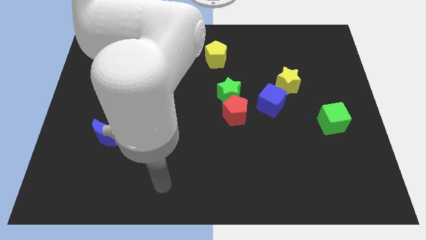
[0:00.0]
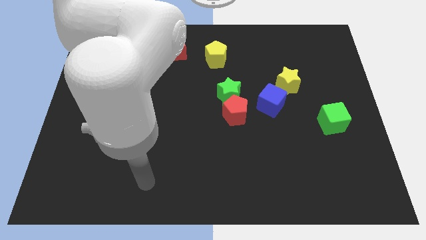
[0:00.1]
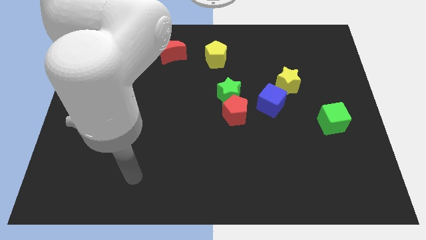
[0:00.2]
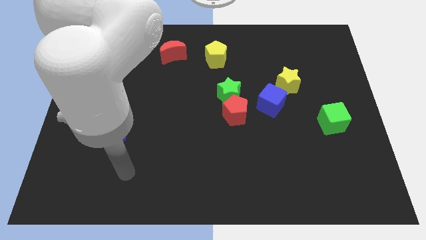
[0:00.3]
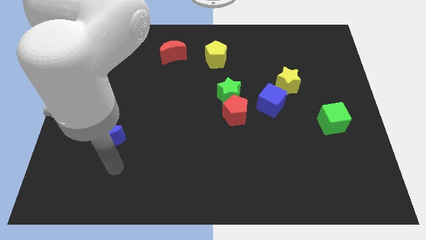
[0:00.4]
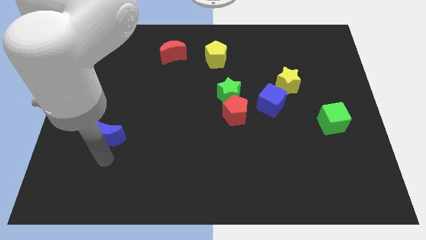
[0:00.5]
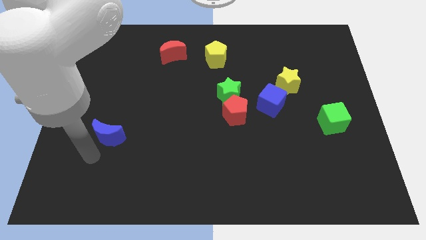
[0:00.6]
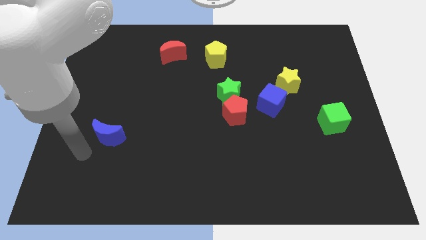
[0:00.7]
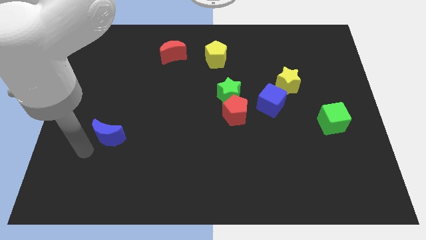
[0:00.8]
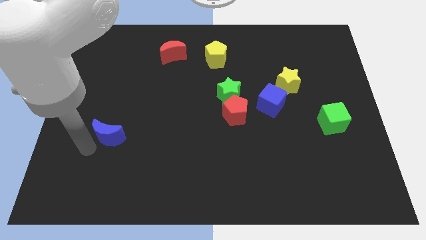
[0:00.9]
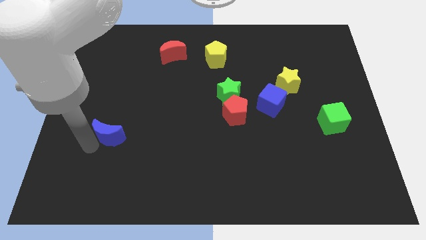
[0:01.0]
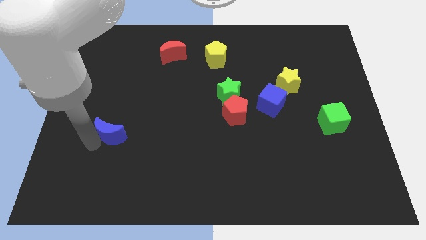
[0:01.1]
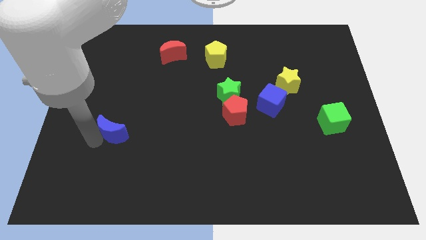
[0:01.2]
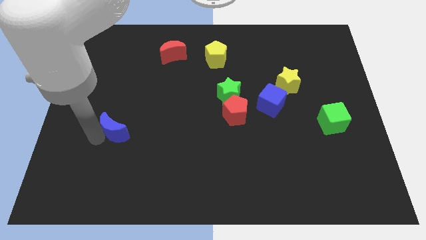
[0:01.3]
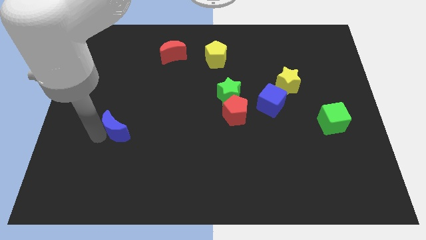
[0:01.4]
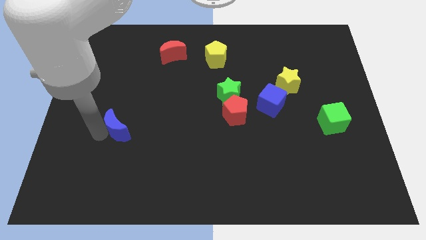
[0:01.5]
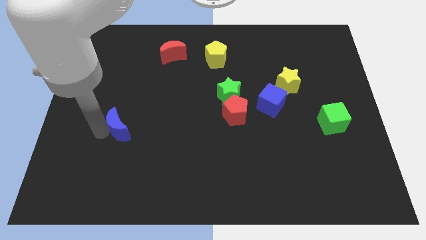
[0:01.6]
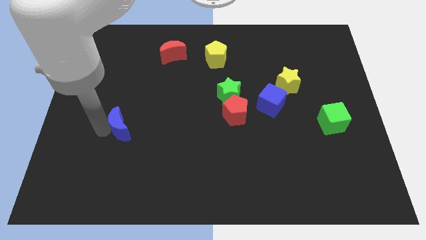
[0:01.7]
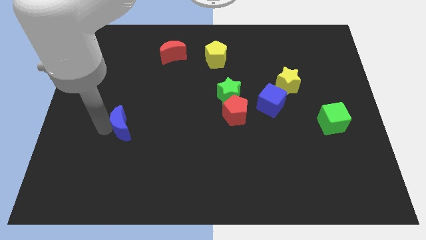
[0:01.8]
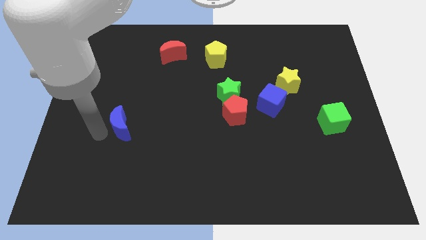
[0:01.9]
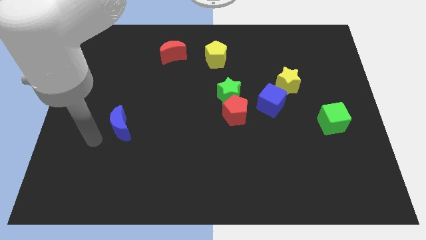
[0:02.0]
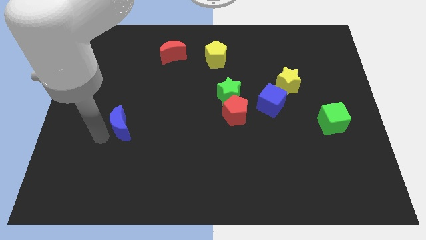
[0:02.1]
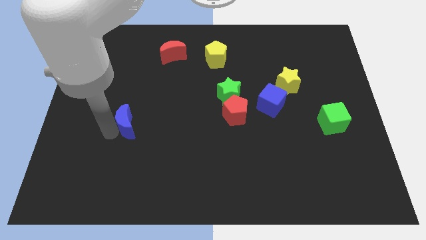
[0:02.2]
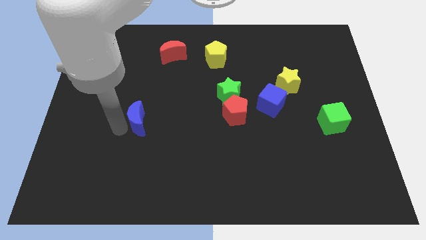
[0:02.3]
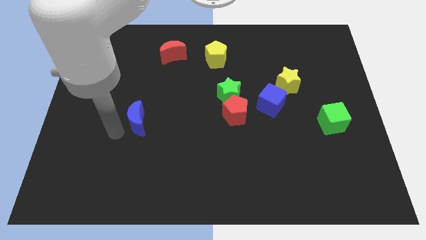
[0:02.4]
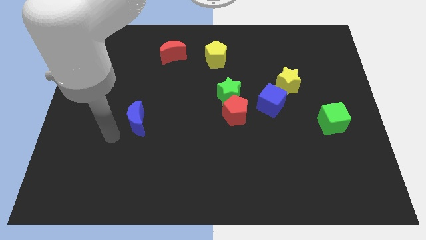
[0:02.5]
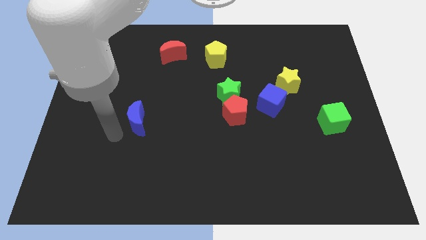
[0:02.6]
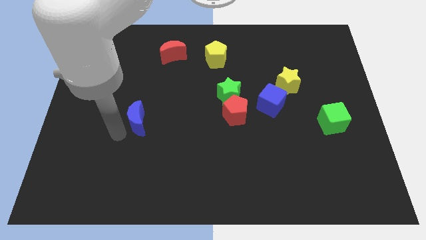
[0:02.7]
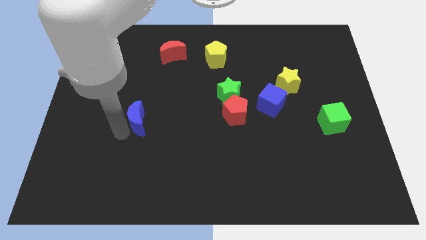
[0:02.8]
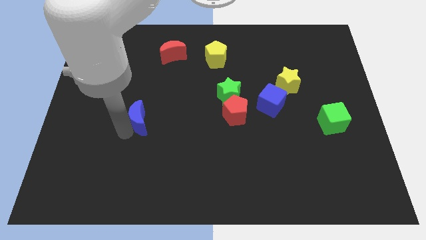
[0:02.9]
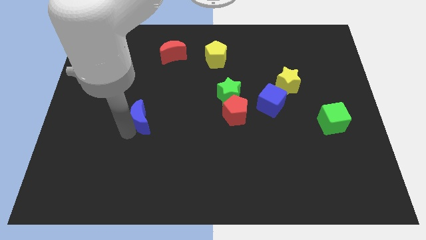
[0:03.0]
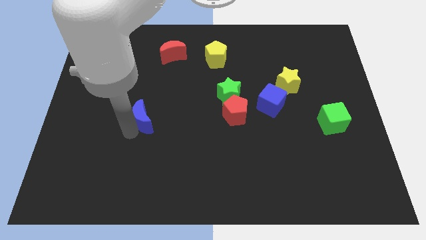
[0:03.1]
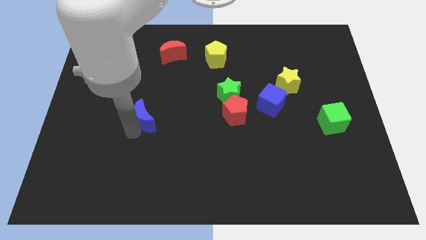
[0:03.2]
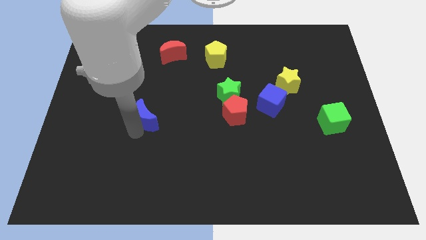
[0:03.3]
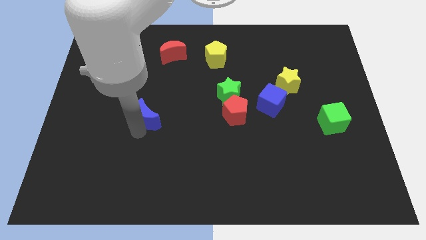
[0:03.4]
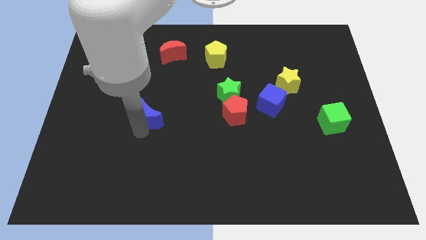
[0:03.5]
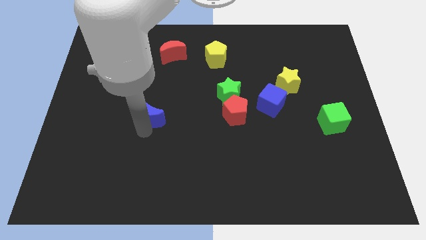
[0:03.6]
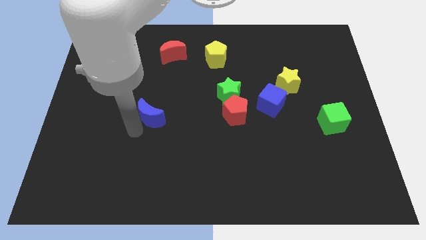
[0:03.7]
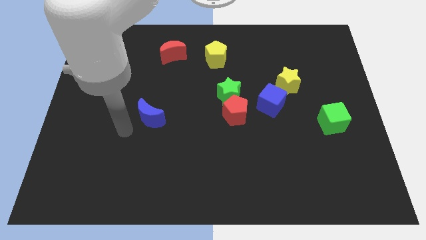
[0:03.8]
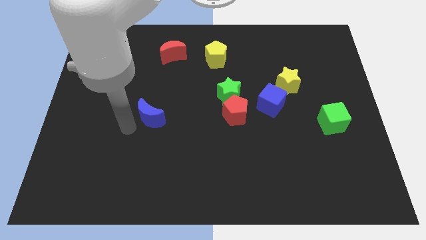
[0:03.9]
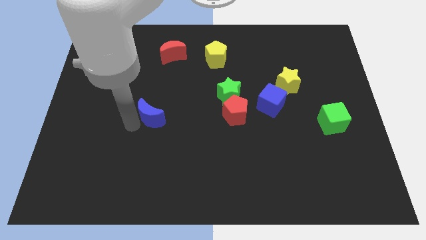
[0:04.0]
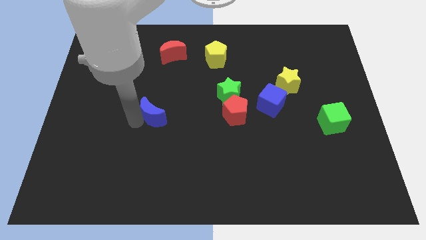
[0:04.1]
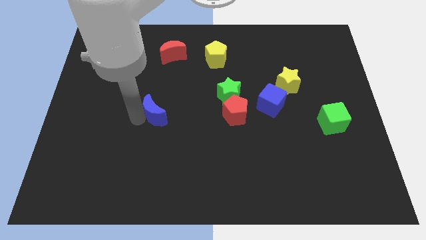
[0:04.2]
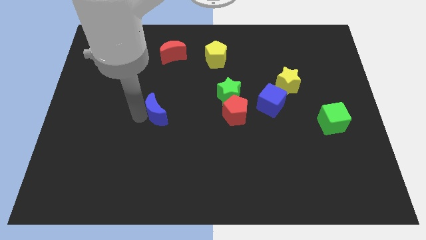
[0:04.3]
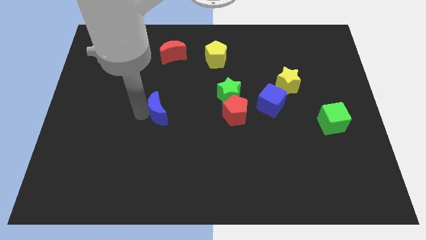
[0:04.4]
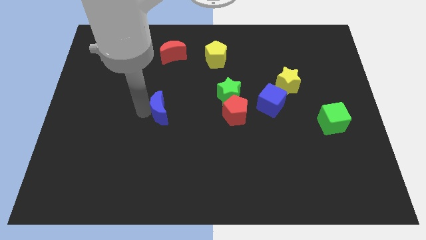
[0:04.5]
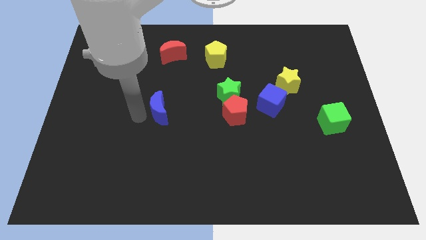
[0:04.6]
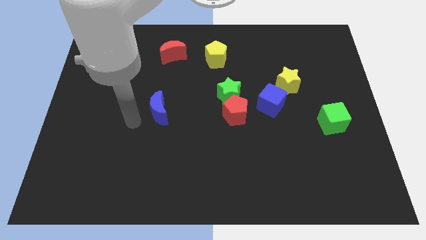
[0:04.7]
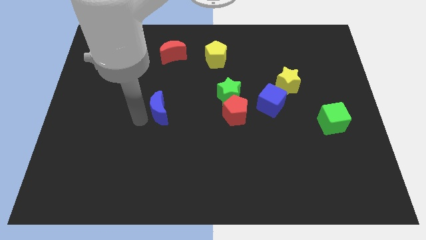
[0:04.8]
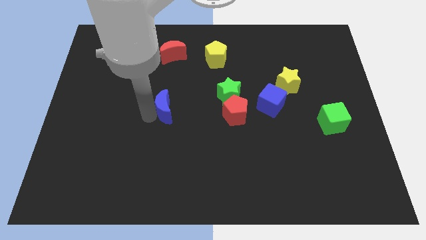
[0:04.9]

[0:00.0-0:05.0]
move the blue moon to the middle of the board

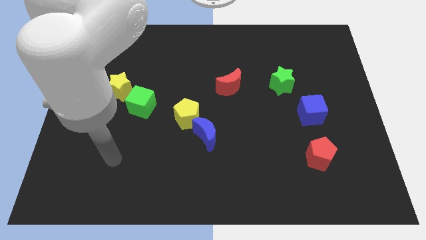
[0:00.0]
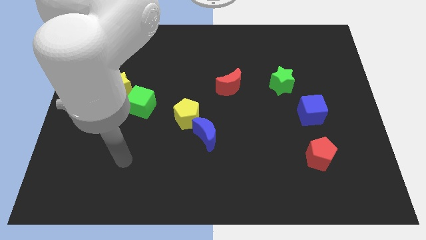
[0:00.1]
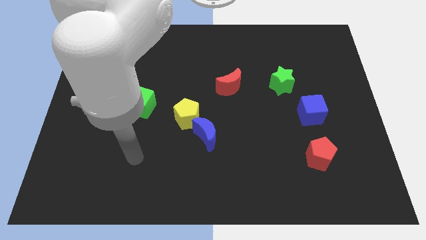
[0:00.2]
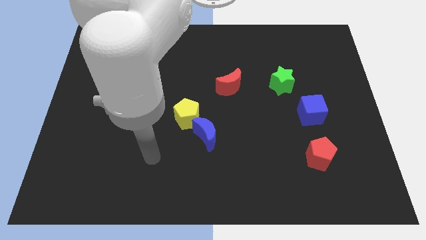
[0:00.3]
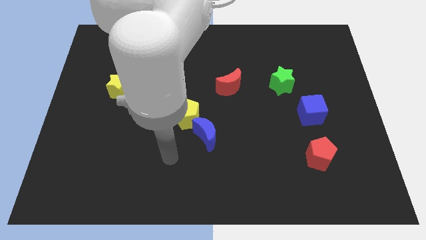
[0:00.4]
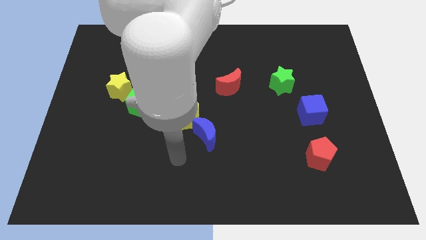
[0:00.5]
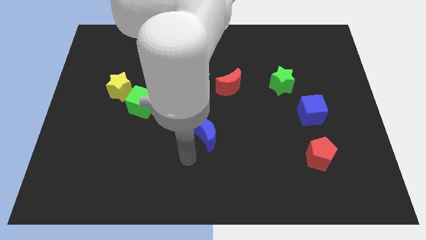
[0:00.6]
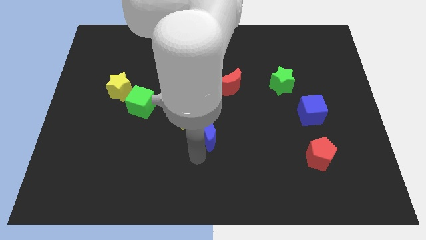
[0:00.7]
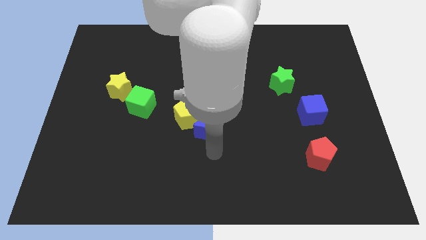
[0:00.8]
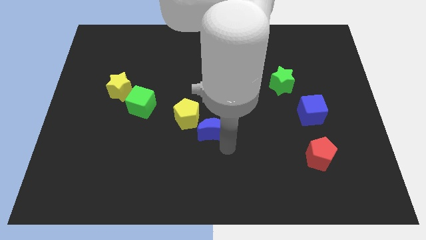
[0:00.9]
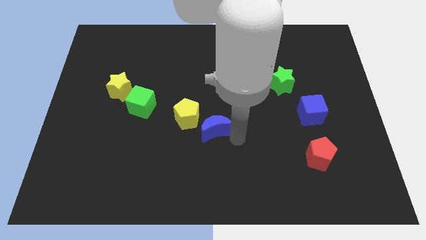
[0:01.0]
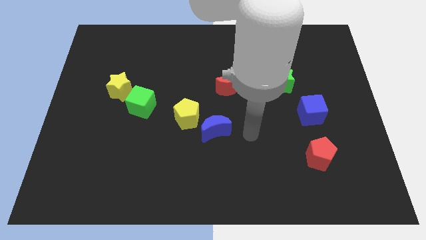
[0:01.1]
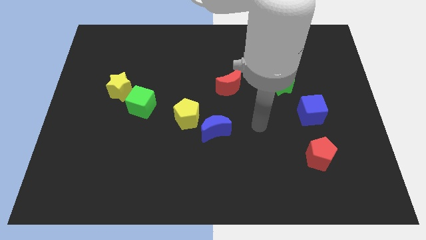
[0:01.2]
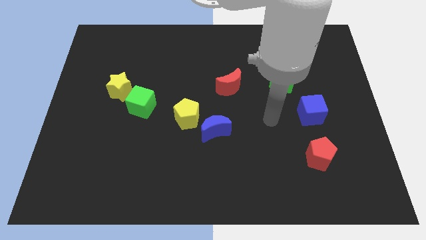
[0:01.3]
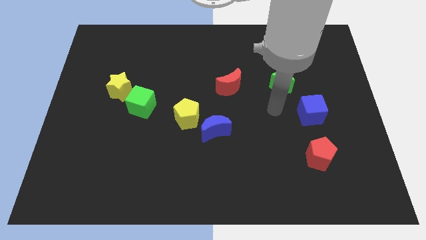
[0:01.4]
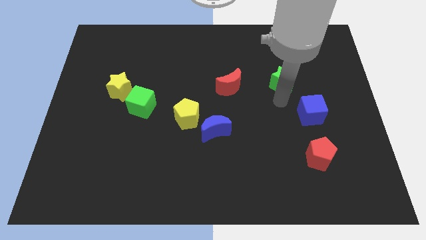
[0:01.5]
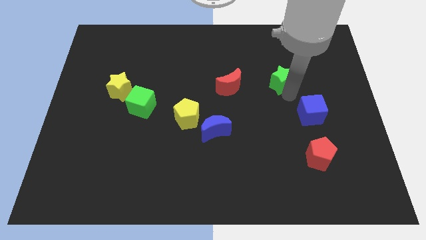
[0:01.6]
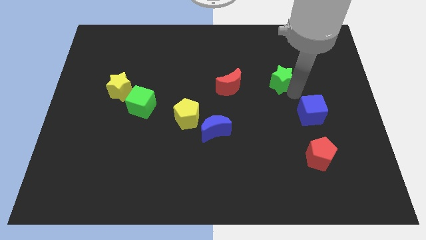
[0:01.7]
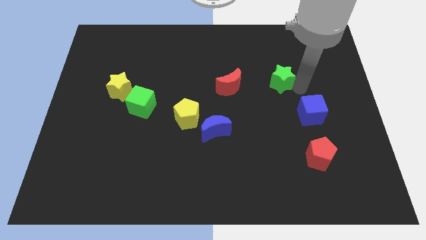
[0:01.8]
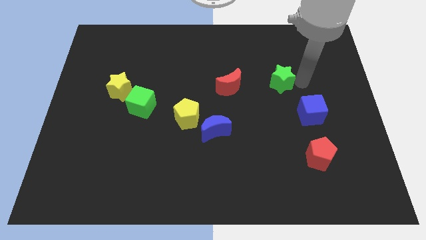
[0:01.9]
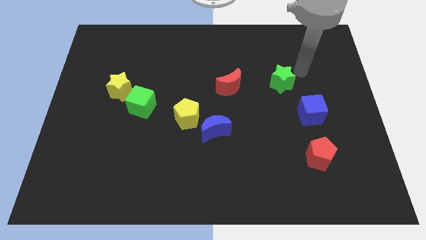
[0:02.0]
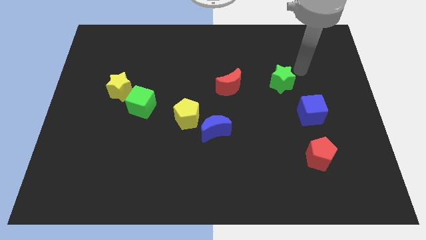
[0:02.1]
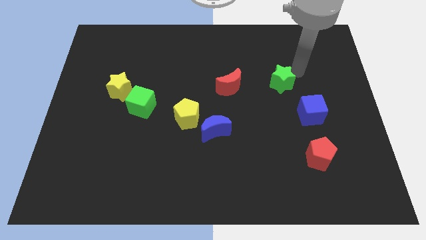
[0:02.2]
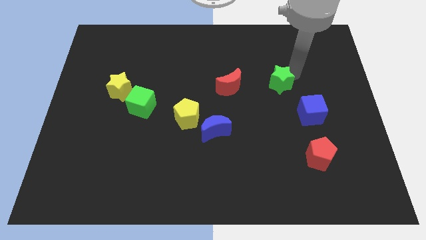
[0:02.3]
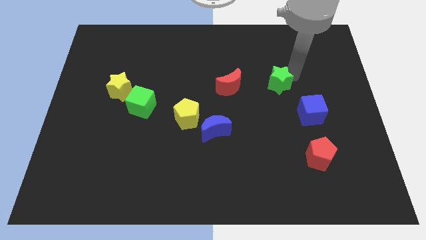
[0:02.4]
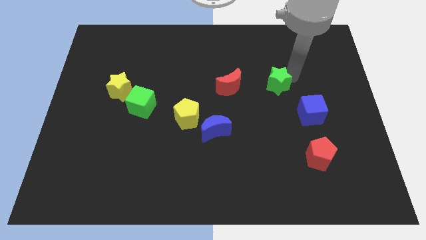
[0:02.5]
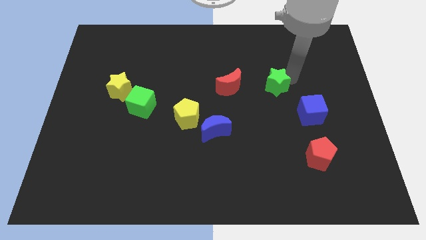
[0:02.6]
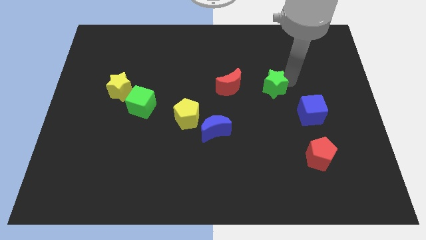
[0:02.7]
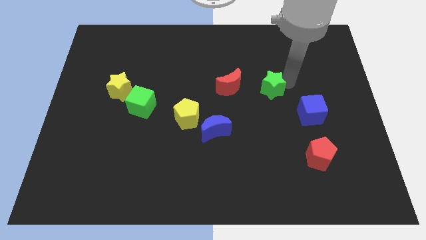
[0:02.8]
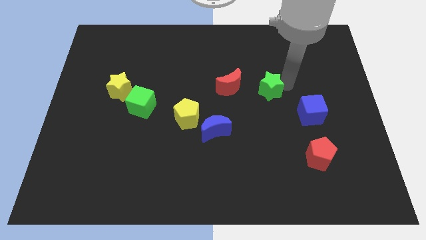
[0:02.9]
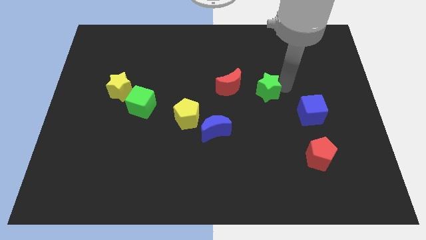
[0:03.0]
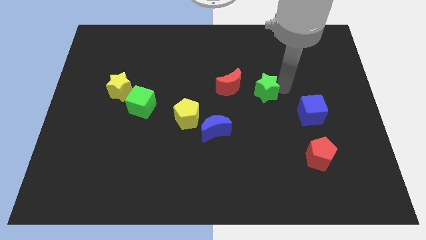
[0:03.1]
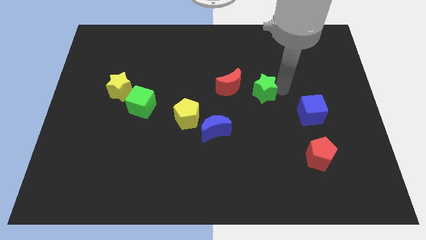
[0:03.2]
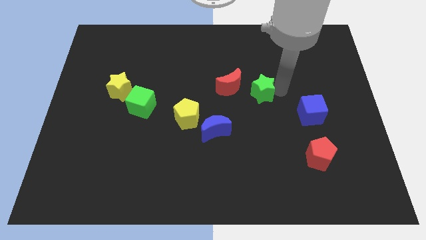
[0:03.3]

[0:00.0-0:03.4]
slide the green star to the center of the board
